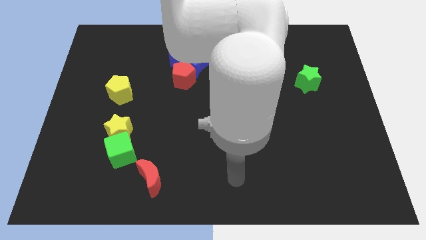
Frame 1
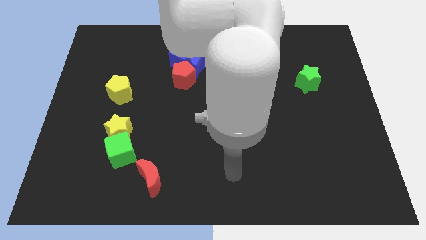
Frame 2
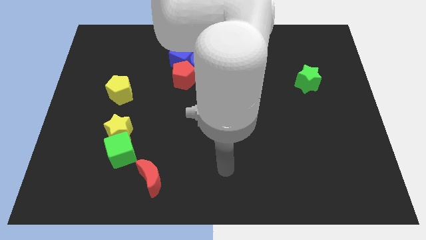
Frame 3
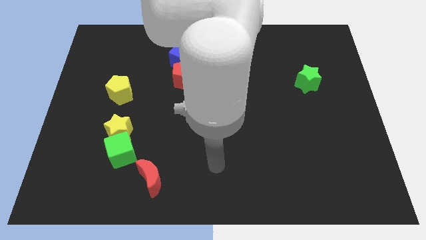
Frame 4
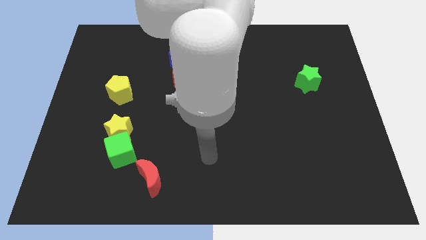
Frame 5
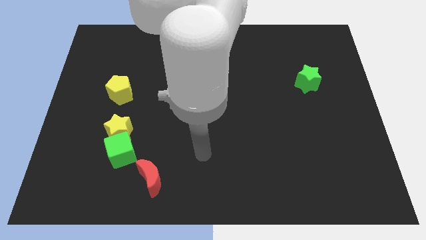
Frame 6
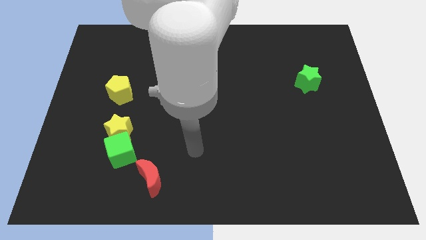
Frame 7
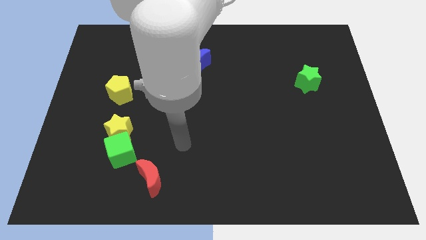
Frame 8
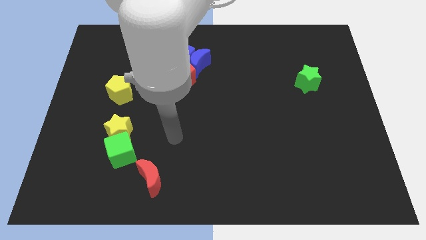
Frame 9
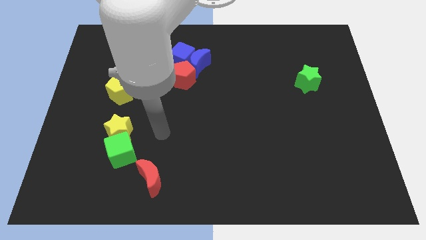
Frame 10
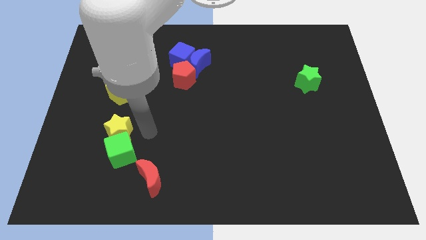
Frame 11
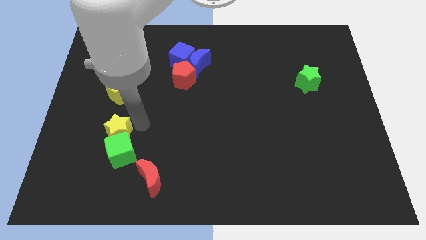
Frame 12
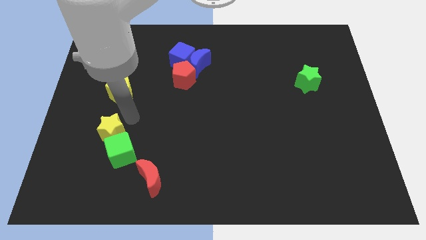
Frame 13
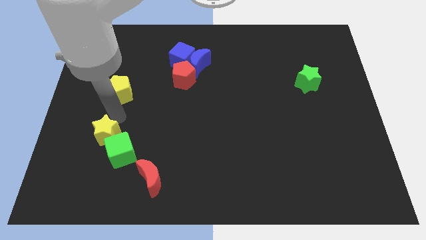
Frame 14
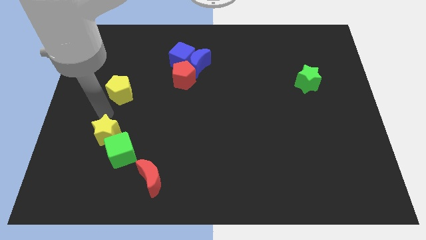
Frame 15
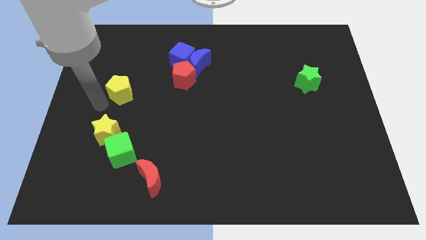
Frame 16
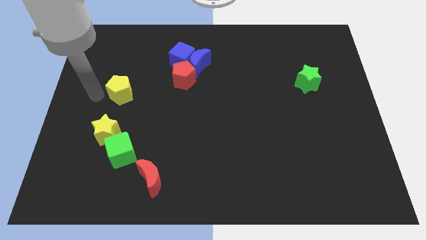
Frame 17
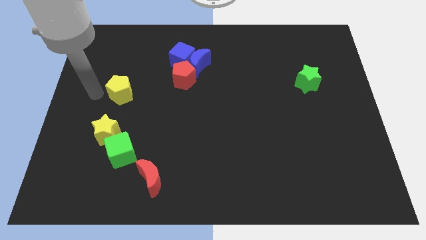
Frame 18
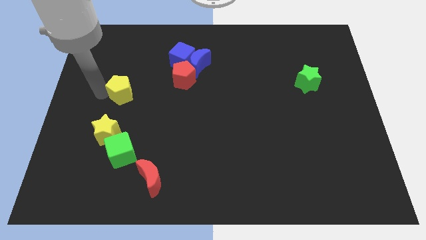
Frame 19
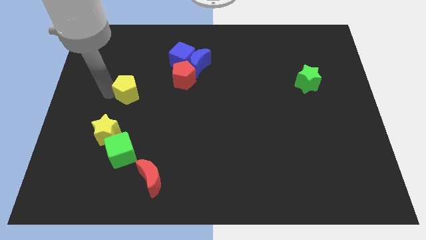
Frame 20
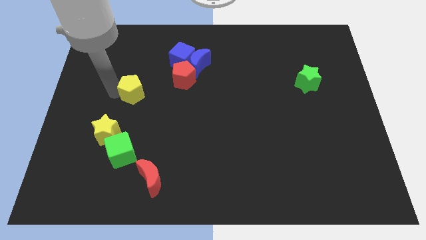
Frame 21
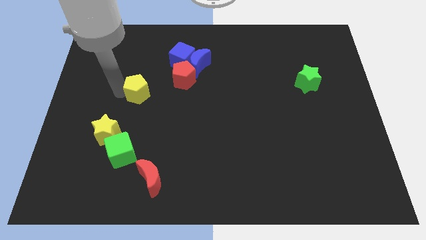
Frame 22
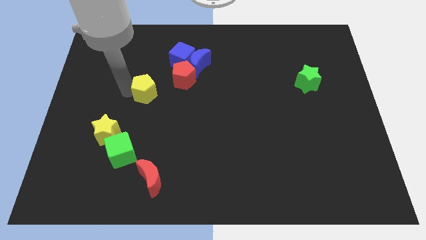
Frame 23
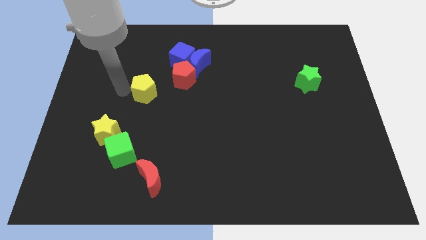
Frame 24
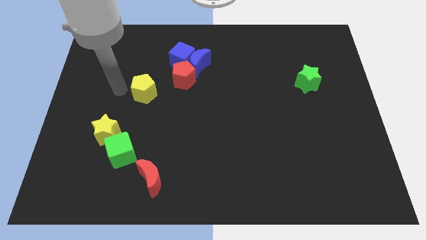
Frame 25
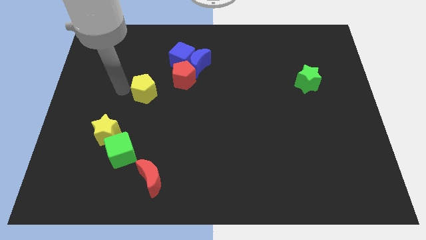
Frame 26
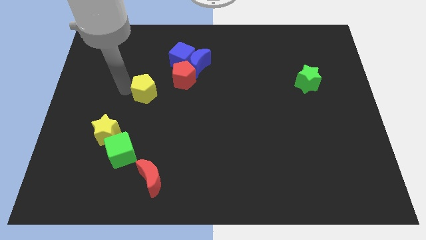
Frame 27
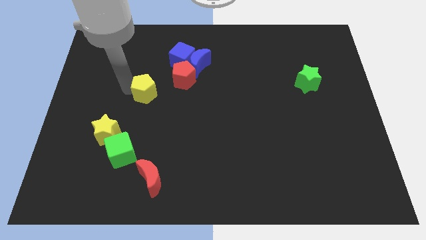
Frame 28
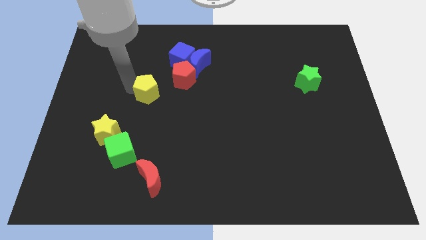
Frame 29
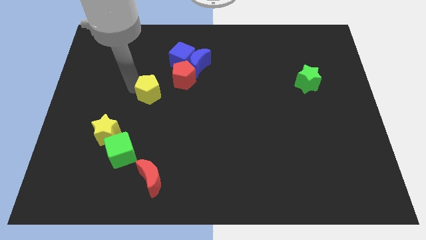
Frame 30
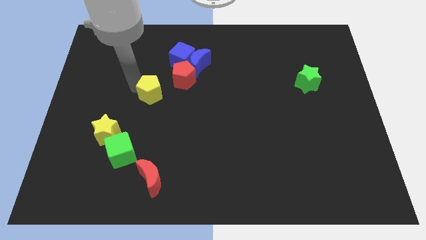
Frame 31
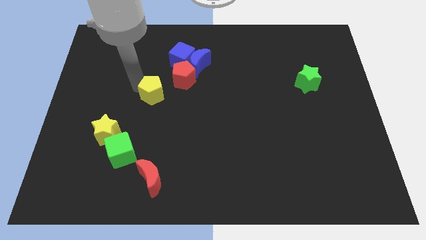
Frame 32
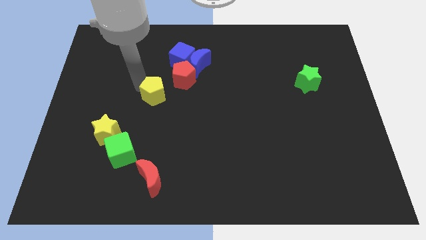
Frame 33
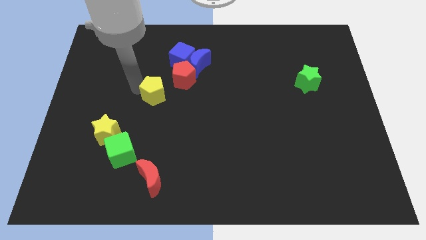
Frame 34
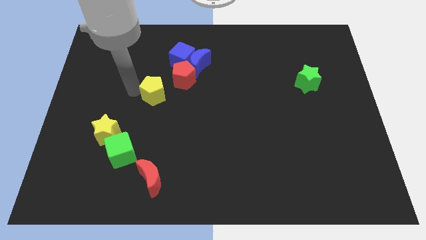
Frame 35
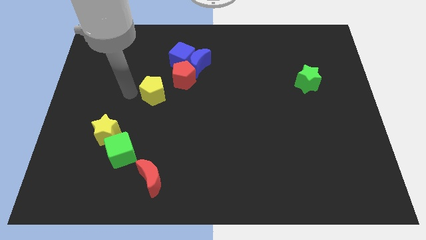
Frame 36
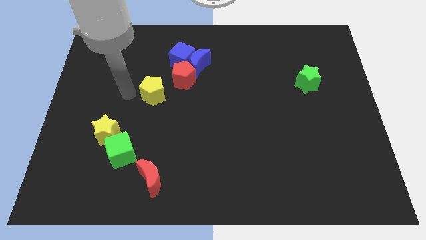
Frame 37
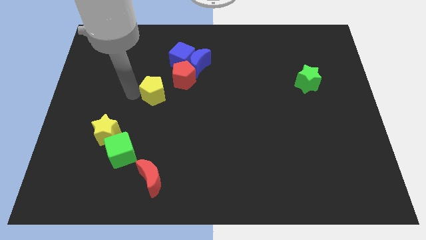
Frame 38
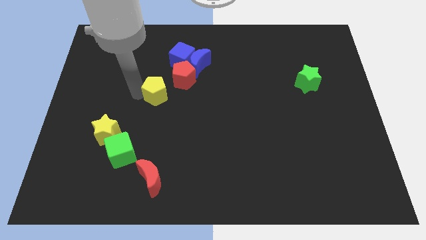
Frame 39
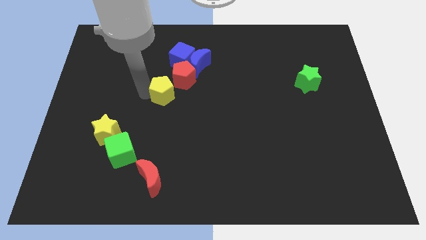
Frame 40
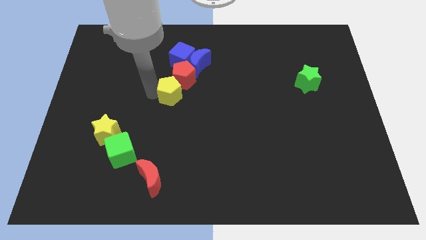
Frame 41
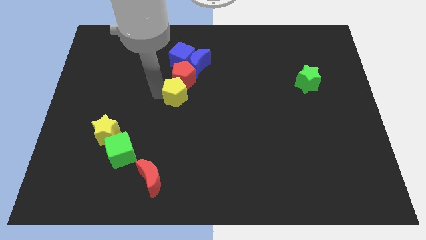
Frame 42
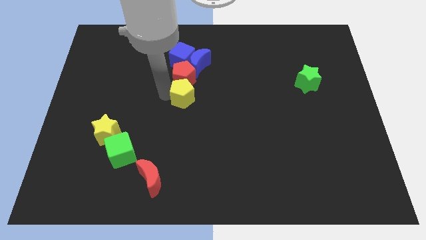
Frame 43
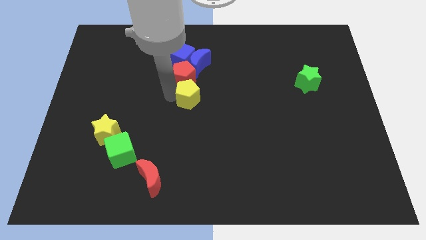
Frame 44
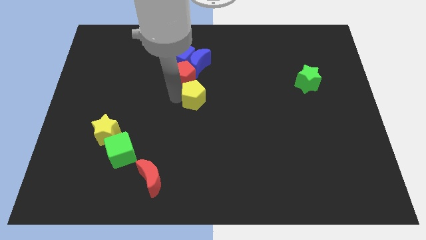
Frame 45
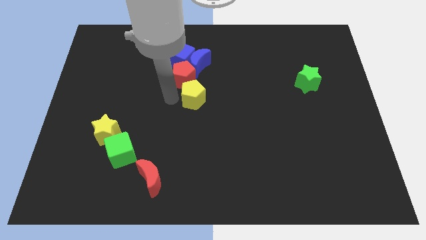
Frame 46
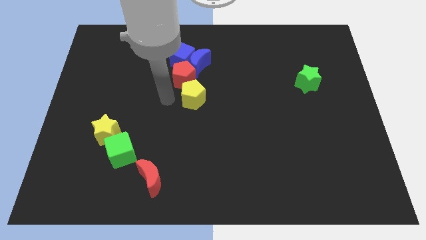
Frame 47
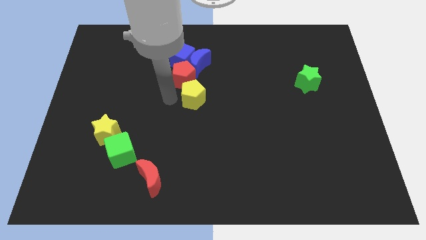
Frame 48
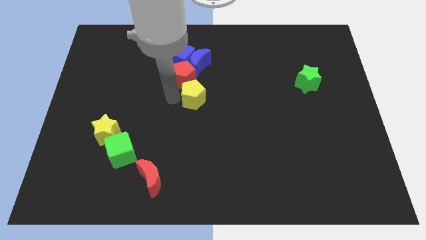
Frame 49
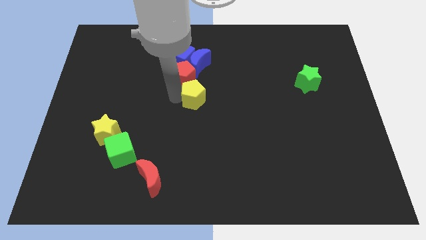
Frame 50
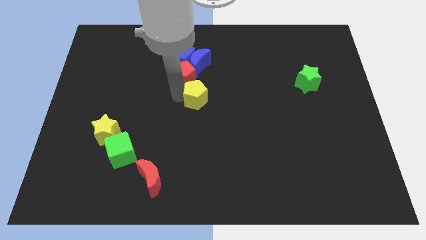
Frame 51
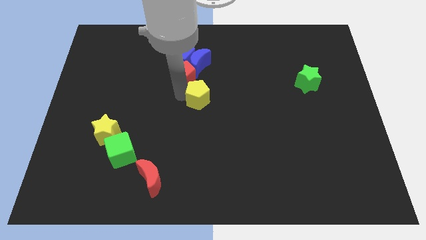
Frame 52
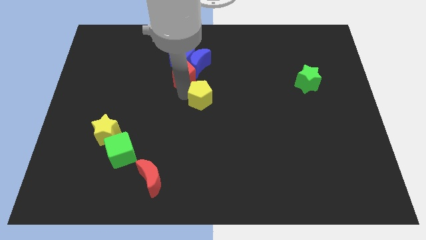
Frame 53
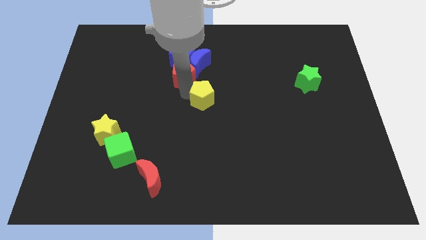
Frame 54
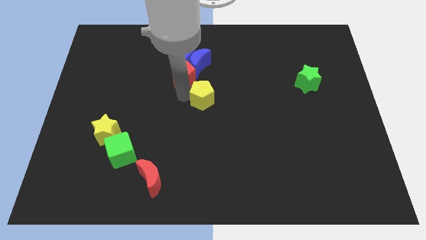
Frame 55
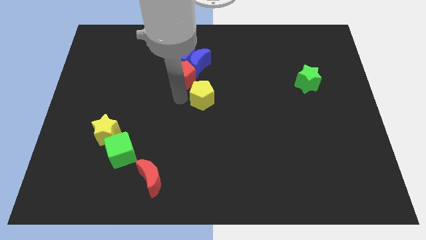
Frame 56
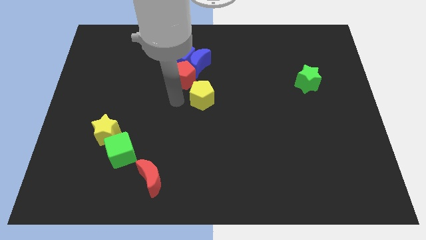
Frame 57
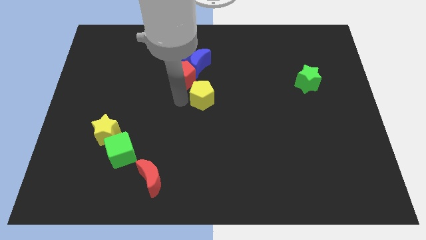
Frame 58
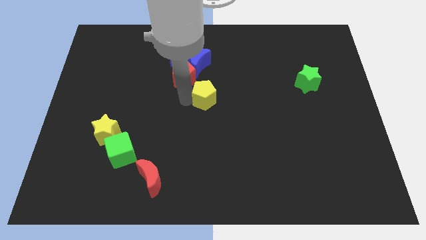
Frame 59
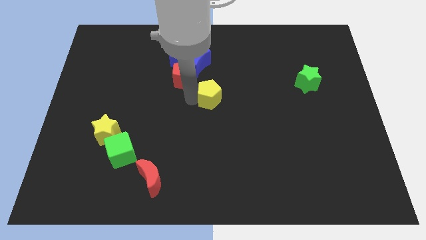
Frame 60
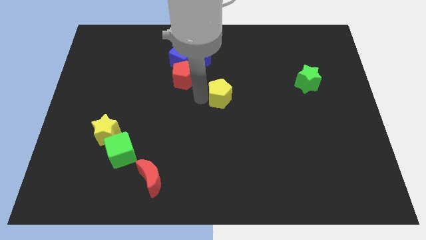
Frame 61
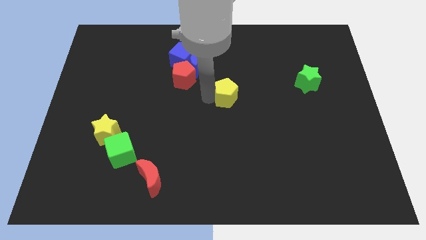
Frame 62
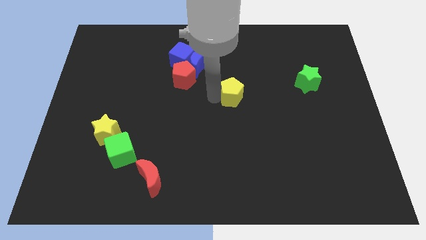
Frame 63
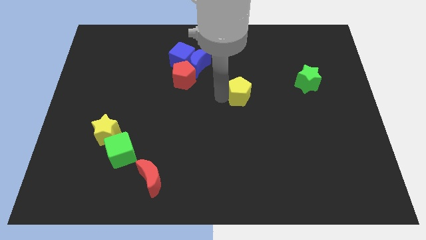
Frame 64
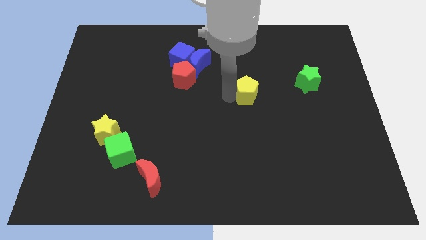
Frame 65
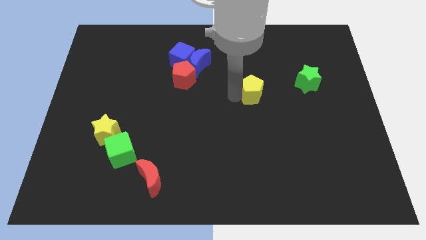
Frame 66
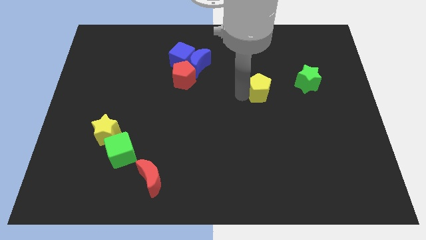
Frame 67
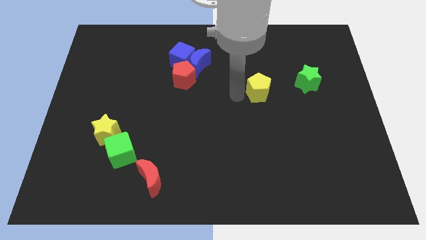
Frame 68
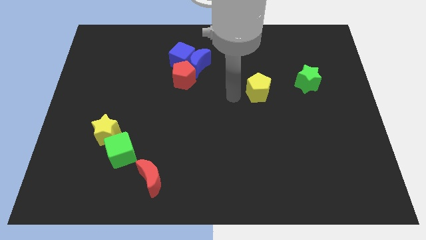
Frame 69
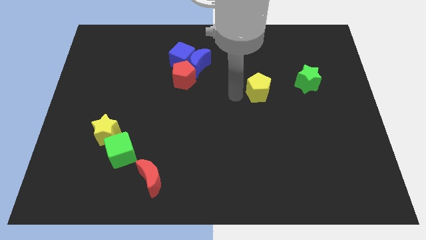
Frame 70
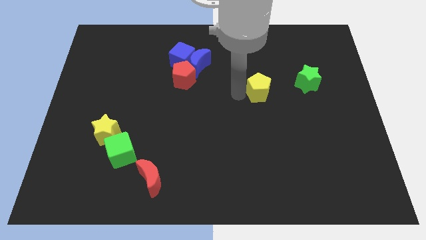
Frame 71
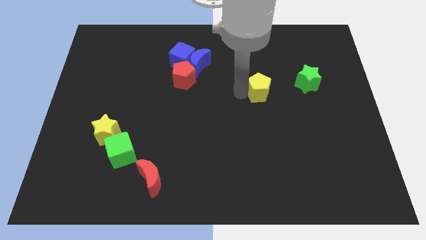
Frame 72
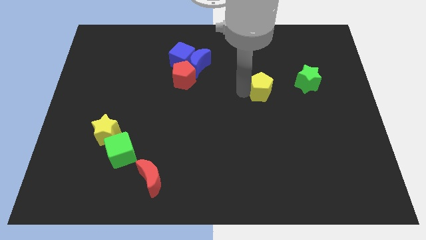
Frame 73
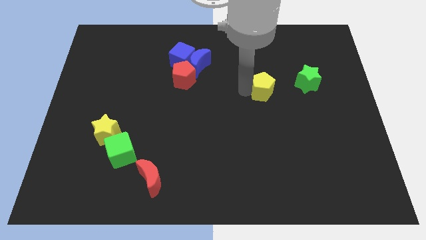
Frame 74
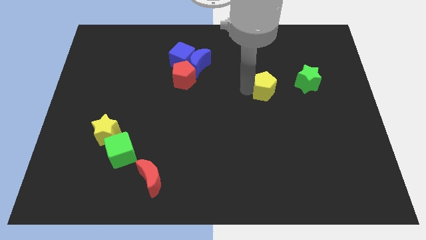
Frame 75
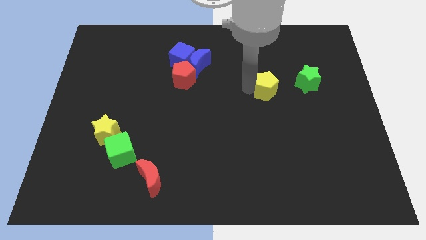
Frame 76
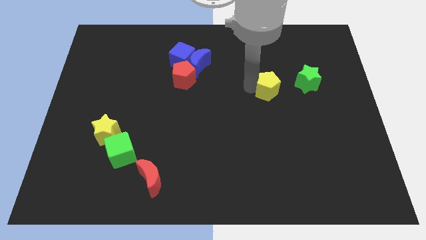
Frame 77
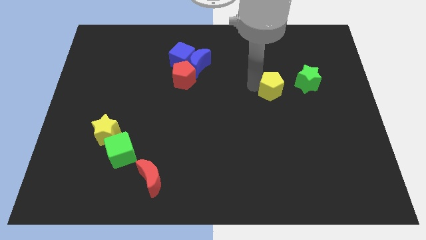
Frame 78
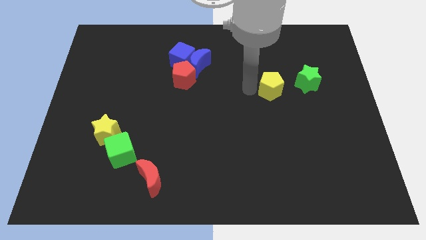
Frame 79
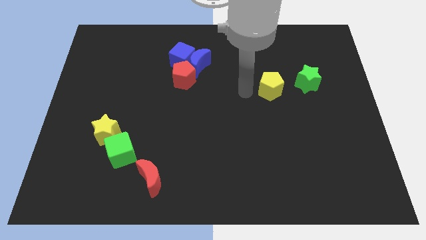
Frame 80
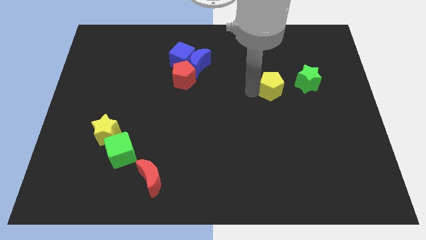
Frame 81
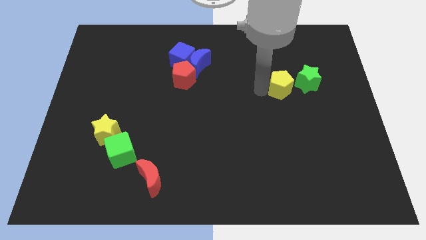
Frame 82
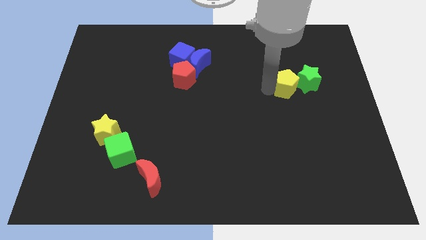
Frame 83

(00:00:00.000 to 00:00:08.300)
move the yellow pentagon towards the green star
